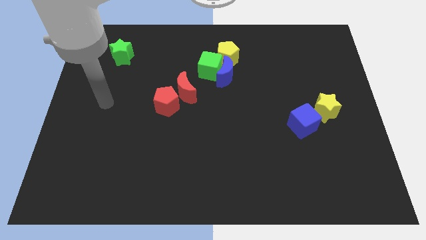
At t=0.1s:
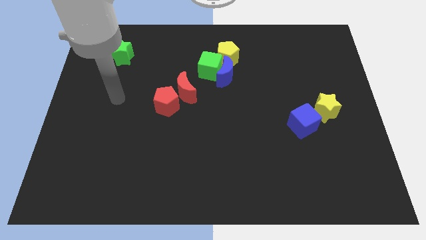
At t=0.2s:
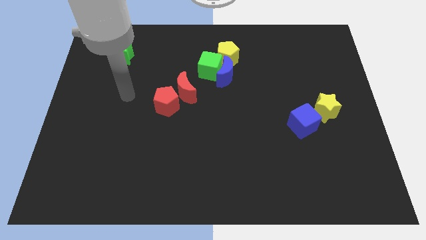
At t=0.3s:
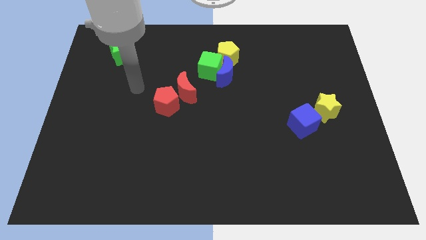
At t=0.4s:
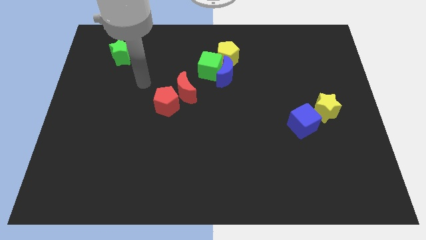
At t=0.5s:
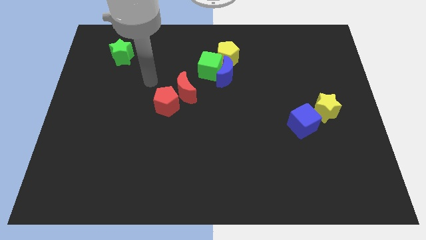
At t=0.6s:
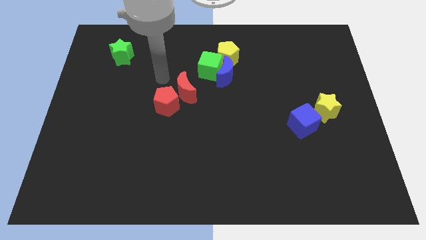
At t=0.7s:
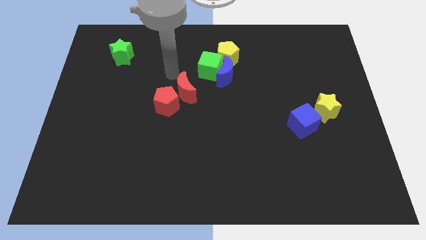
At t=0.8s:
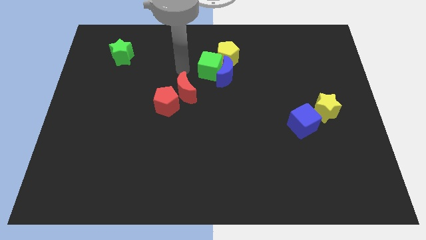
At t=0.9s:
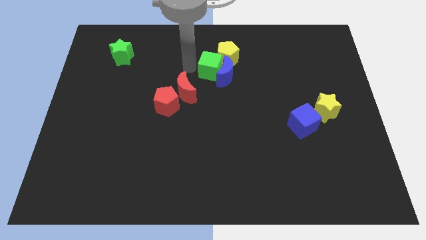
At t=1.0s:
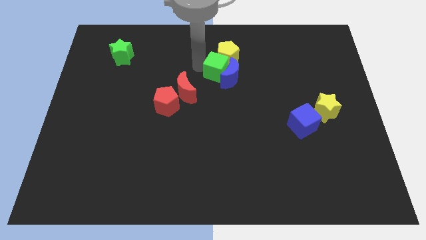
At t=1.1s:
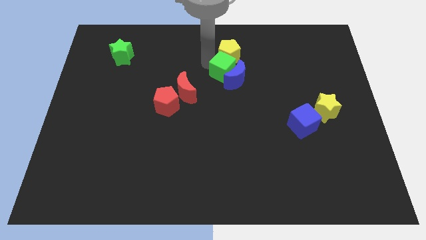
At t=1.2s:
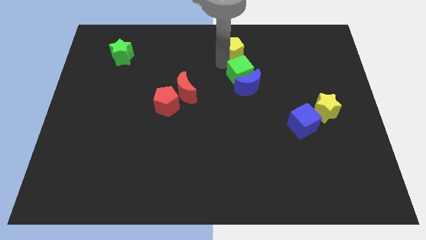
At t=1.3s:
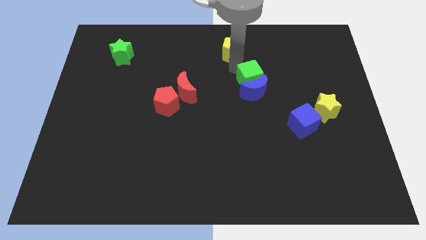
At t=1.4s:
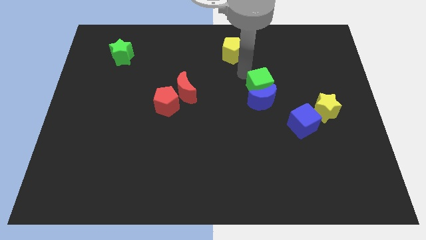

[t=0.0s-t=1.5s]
pull the blue moon apart from the green cube and yellow pentagon

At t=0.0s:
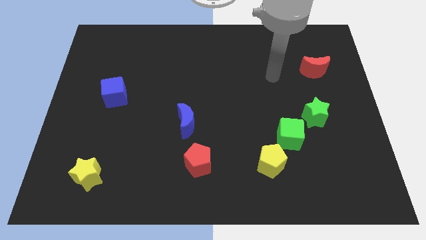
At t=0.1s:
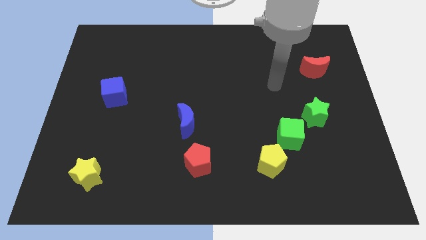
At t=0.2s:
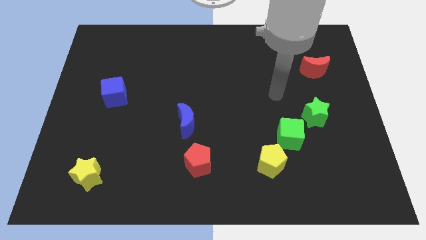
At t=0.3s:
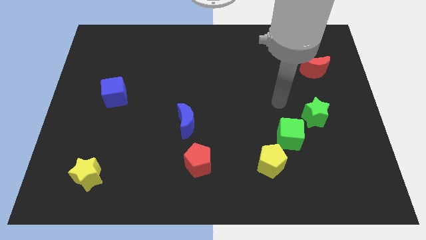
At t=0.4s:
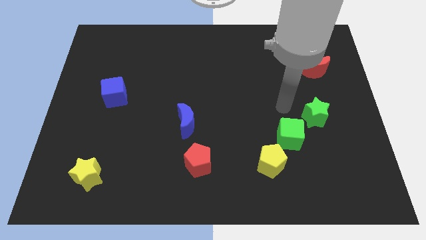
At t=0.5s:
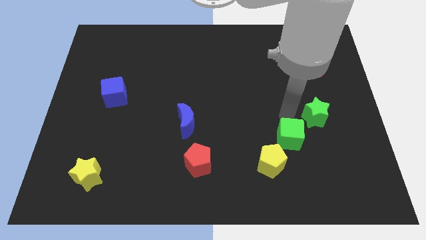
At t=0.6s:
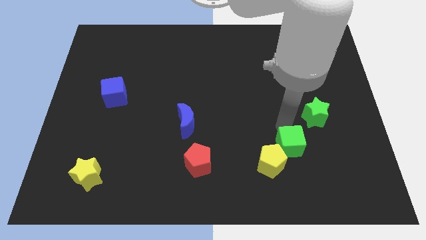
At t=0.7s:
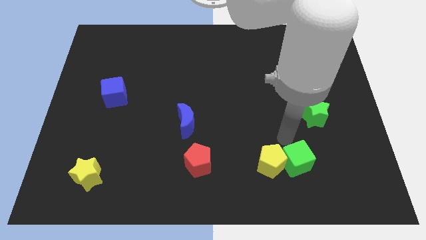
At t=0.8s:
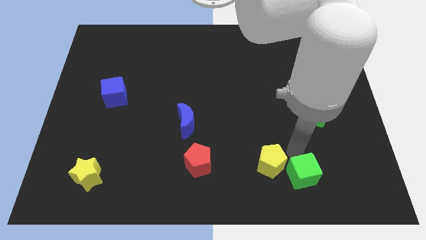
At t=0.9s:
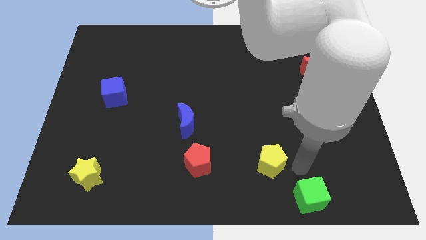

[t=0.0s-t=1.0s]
pull the yellow pentagon apart from the green cube

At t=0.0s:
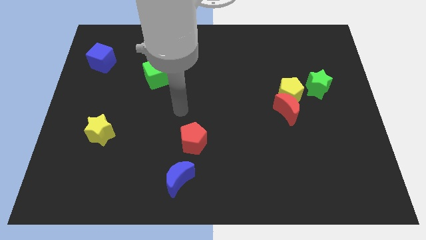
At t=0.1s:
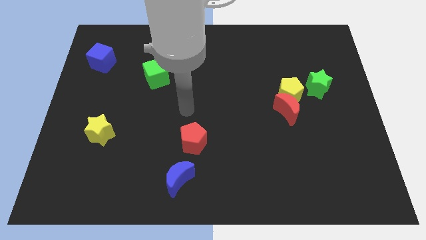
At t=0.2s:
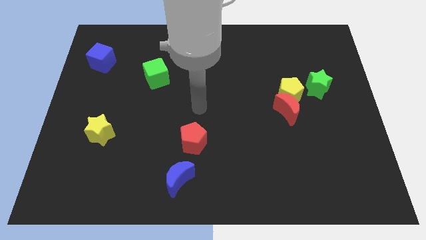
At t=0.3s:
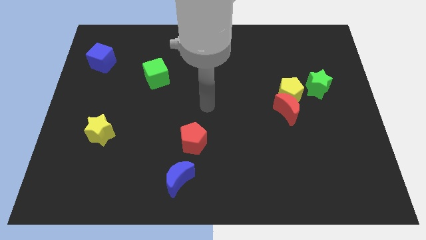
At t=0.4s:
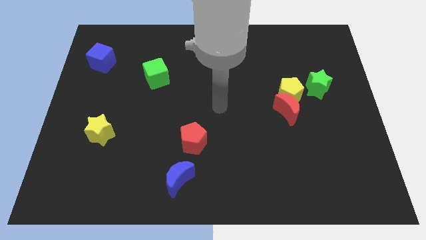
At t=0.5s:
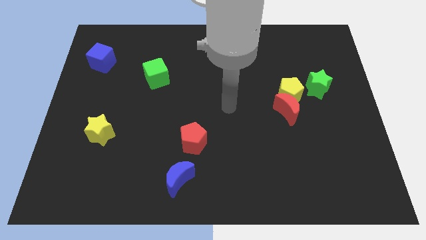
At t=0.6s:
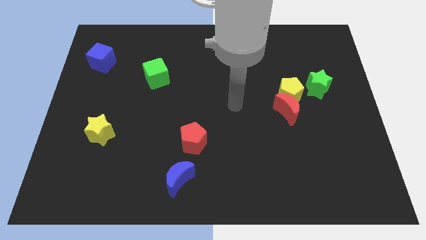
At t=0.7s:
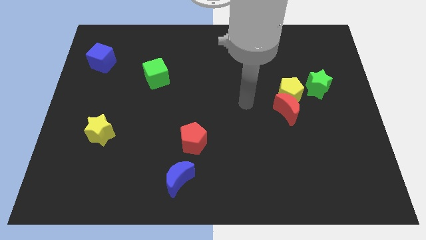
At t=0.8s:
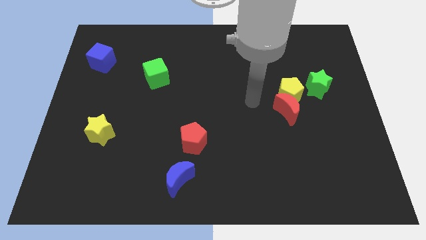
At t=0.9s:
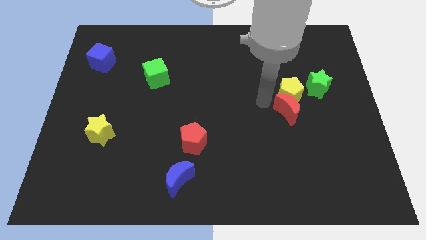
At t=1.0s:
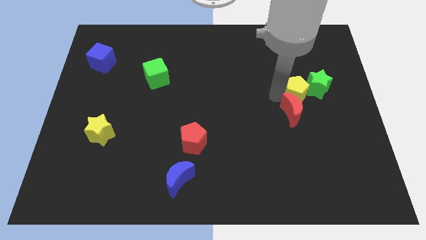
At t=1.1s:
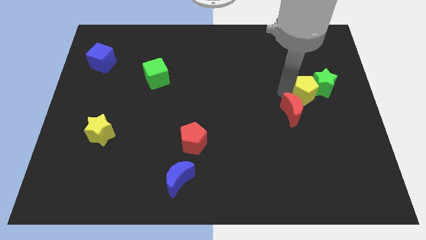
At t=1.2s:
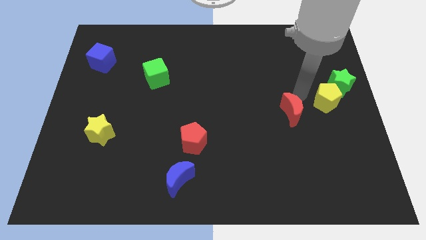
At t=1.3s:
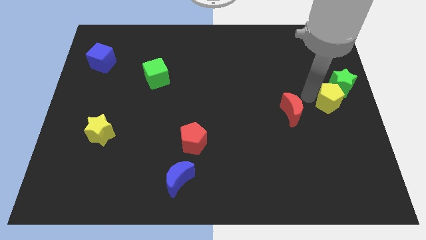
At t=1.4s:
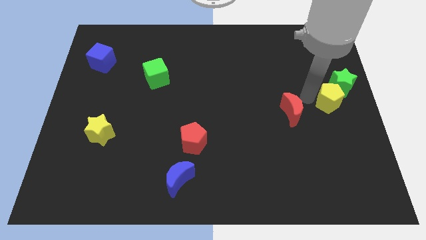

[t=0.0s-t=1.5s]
move the red moon away from the yellow pentagon

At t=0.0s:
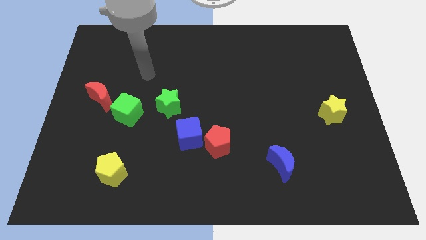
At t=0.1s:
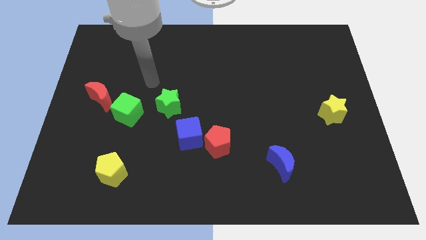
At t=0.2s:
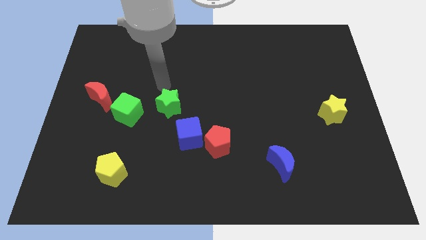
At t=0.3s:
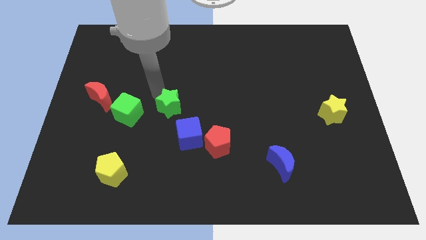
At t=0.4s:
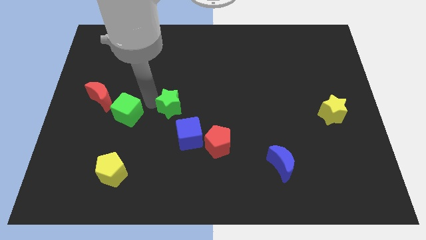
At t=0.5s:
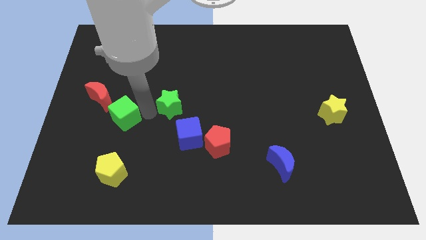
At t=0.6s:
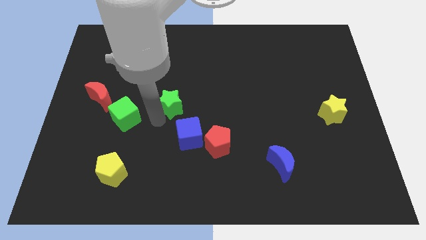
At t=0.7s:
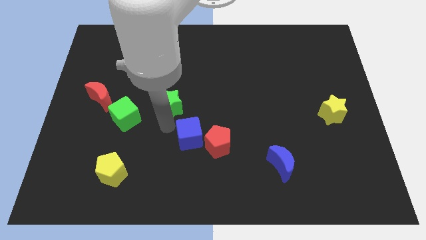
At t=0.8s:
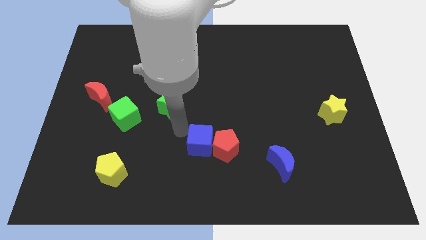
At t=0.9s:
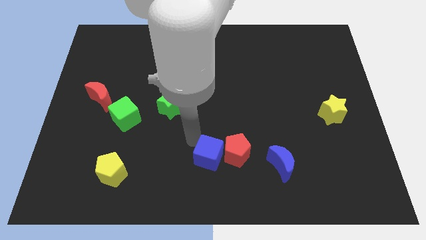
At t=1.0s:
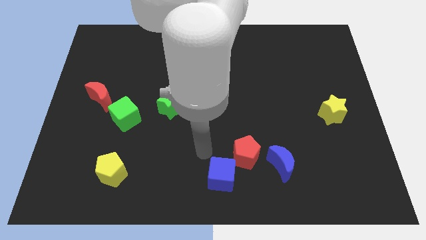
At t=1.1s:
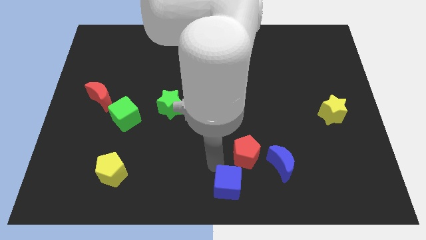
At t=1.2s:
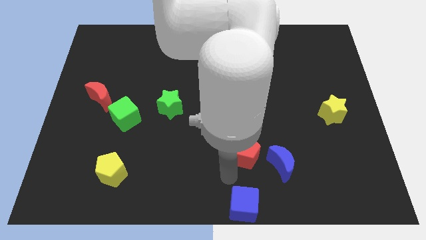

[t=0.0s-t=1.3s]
separate the red pentagon from the blue cube

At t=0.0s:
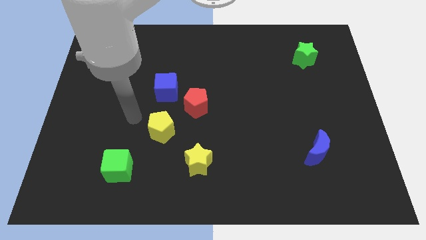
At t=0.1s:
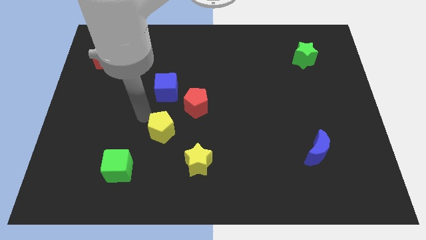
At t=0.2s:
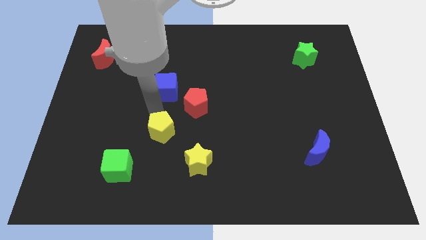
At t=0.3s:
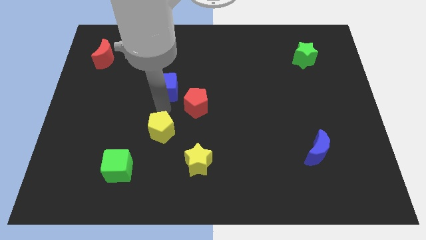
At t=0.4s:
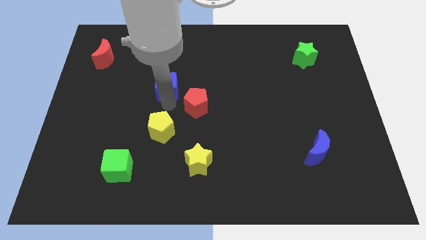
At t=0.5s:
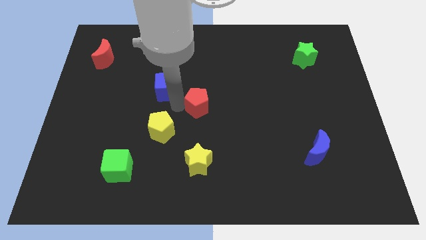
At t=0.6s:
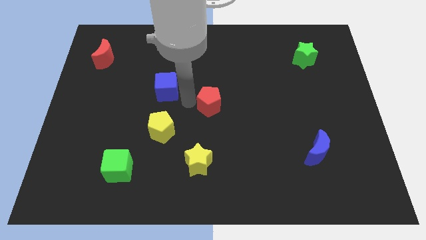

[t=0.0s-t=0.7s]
move the blue cube away from the red pentagon

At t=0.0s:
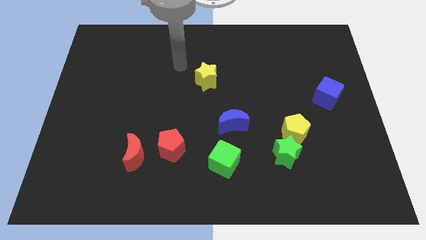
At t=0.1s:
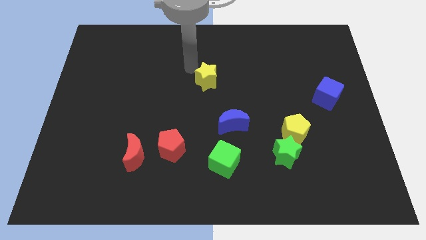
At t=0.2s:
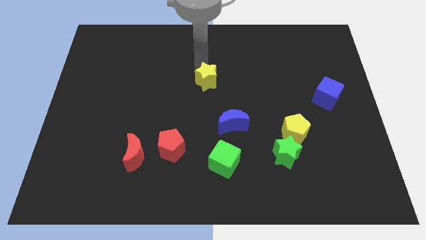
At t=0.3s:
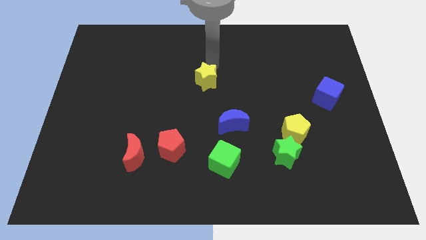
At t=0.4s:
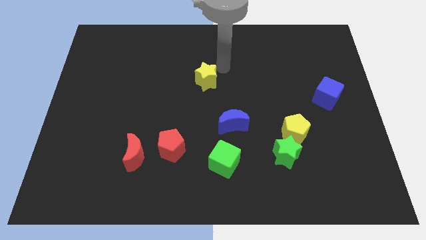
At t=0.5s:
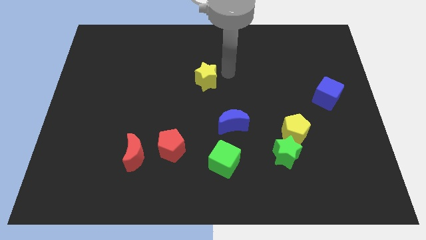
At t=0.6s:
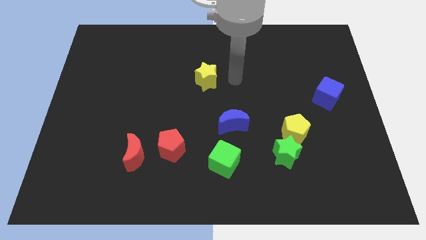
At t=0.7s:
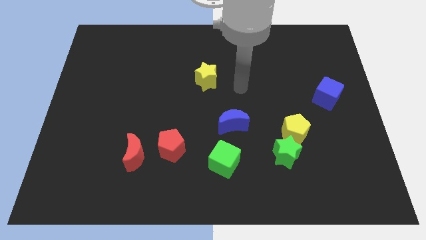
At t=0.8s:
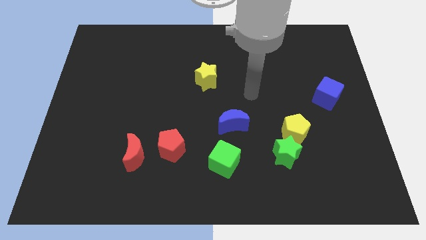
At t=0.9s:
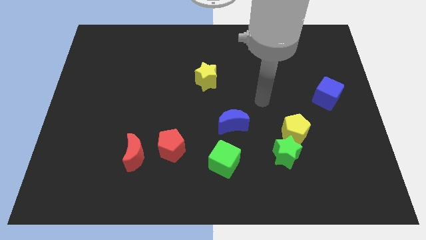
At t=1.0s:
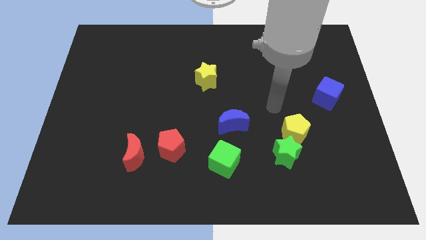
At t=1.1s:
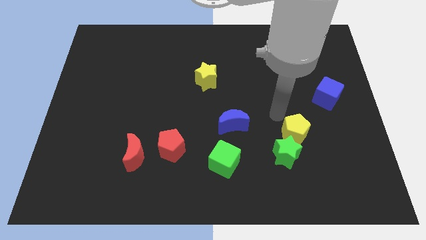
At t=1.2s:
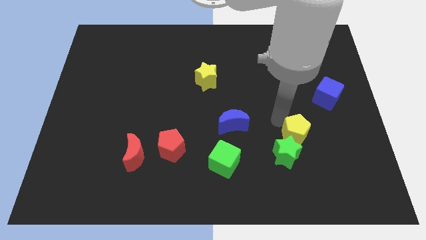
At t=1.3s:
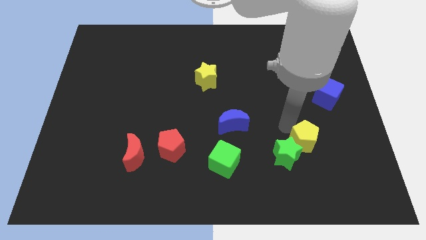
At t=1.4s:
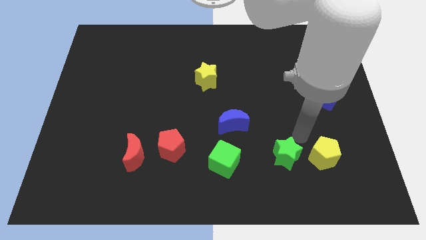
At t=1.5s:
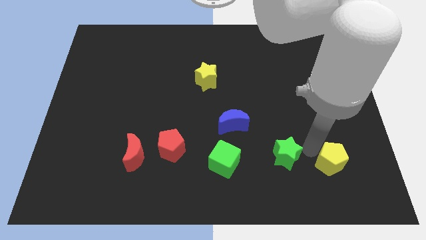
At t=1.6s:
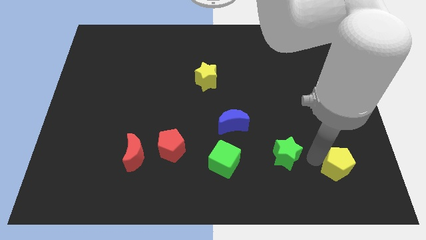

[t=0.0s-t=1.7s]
separate the green star from the yellow pentagon

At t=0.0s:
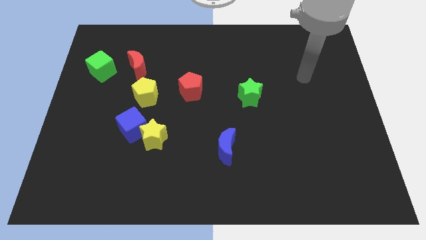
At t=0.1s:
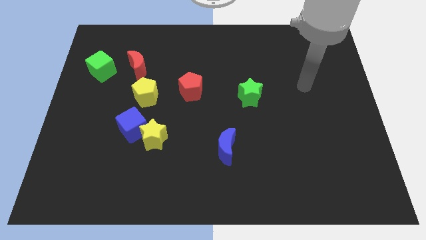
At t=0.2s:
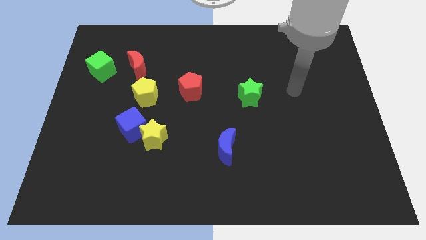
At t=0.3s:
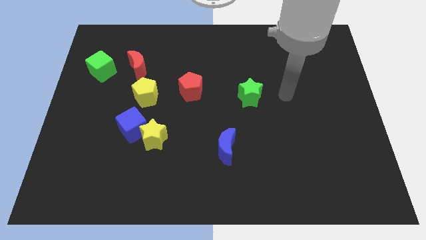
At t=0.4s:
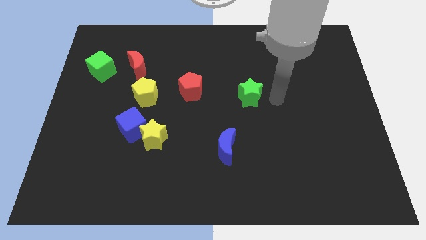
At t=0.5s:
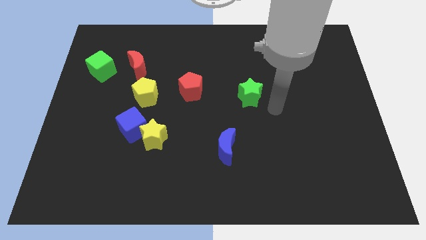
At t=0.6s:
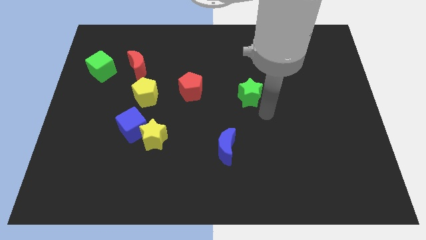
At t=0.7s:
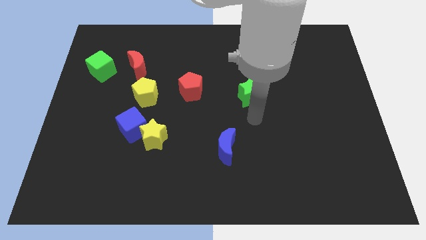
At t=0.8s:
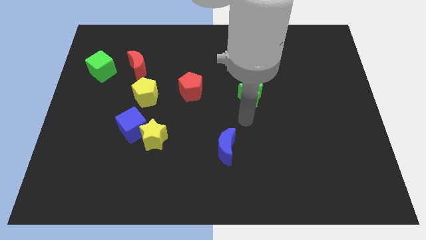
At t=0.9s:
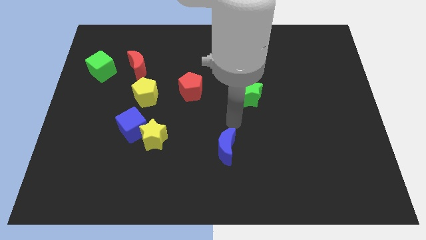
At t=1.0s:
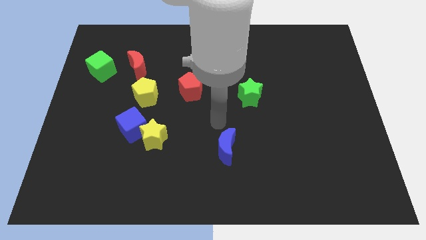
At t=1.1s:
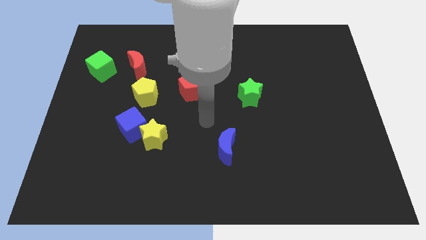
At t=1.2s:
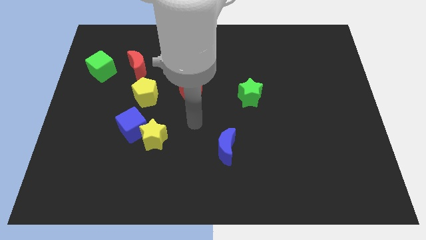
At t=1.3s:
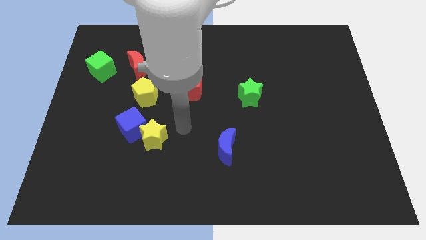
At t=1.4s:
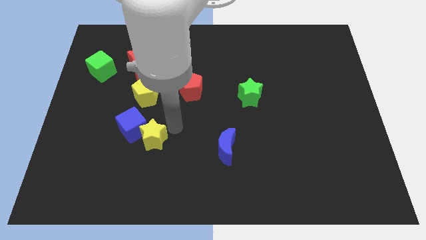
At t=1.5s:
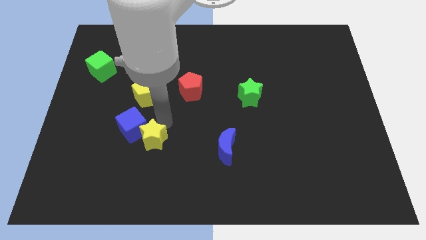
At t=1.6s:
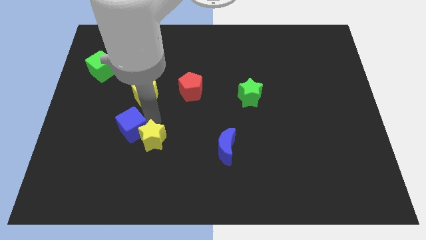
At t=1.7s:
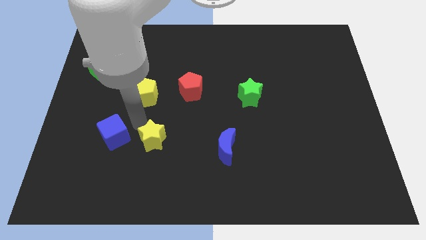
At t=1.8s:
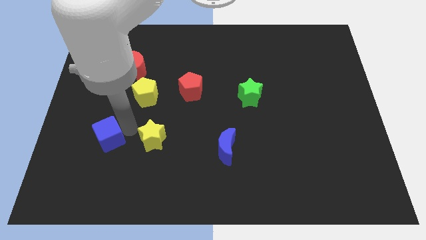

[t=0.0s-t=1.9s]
pull the yellow star apart from the blue cube
